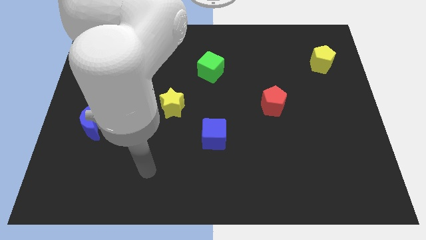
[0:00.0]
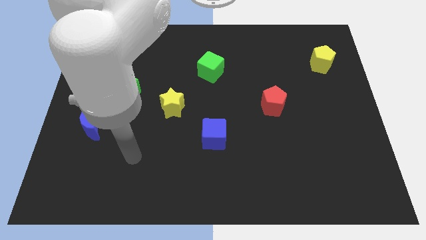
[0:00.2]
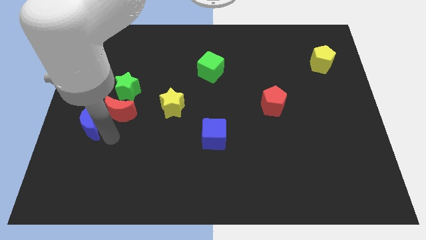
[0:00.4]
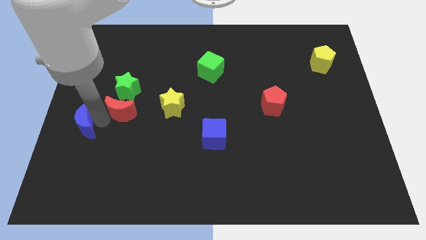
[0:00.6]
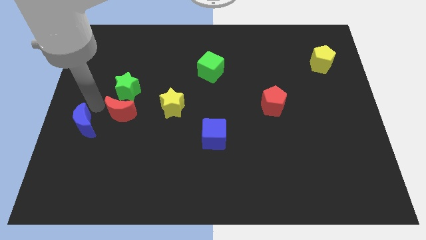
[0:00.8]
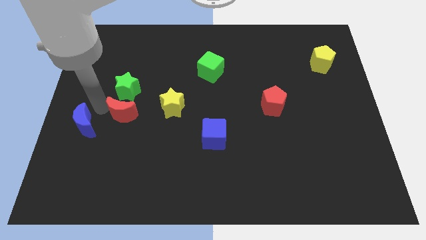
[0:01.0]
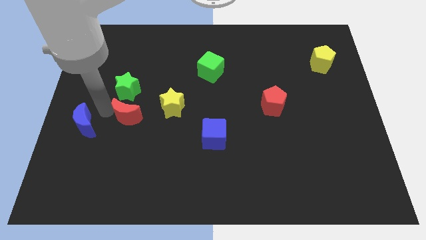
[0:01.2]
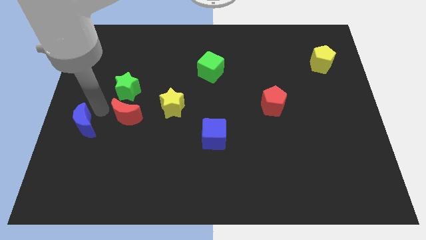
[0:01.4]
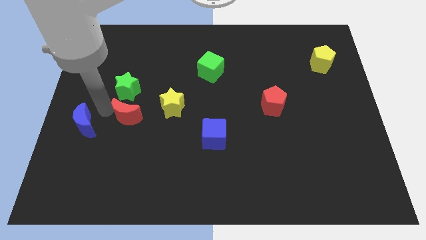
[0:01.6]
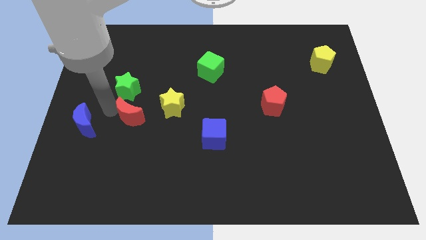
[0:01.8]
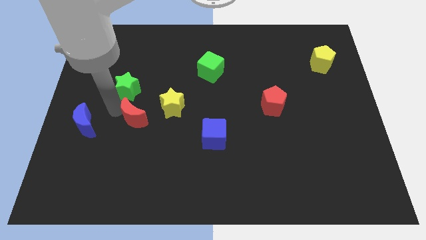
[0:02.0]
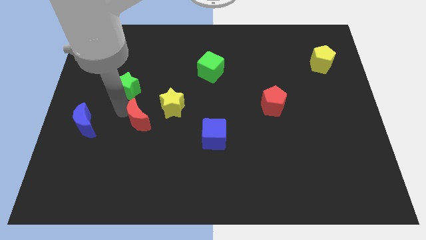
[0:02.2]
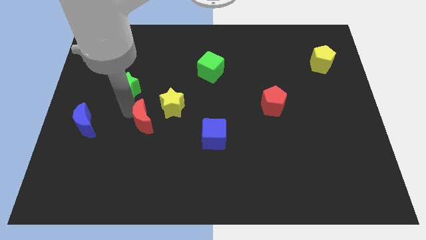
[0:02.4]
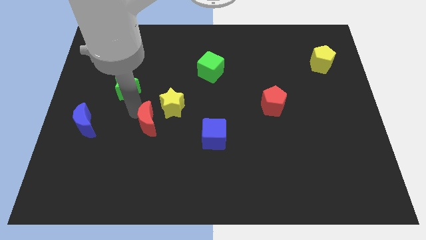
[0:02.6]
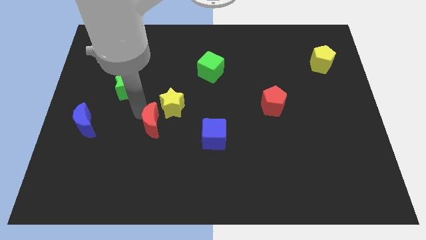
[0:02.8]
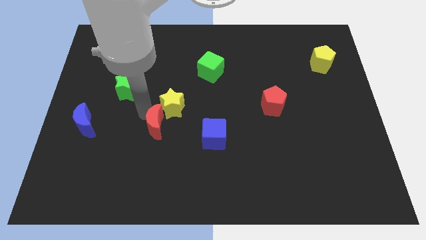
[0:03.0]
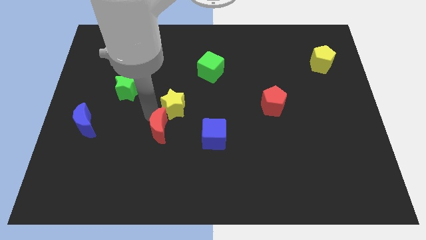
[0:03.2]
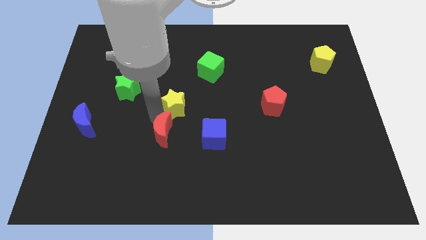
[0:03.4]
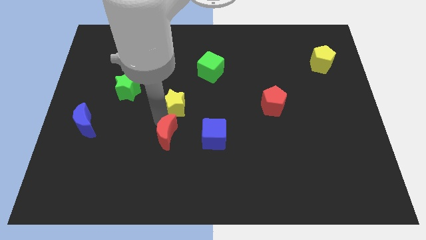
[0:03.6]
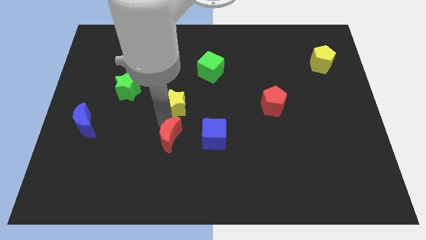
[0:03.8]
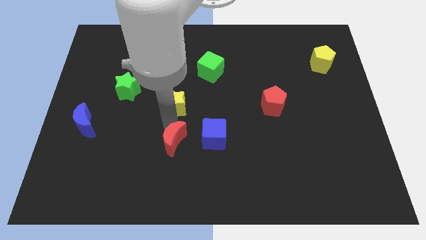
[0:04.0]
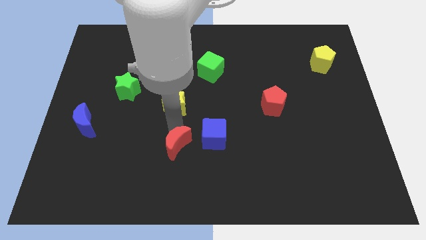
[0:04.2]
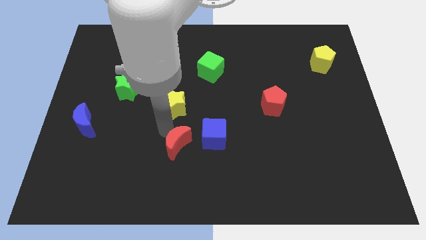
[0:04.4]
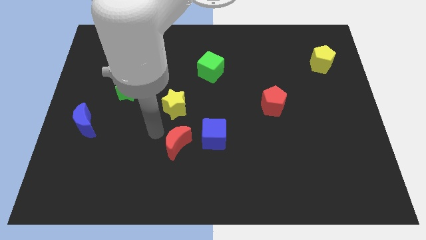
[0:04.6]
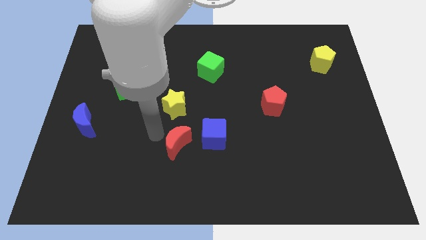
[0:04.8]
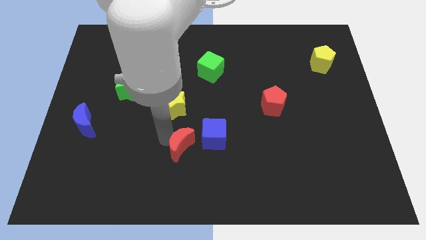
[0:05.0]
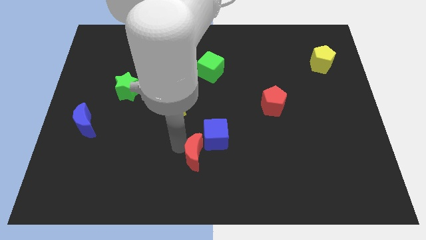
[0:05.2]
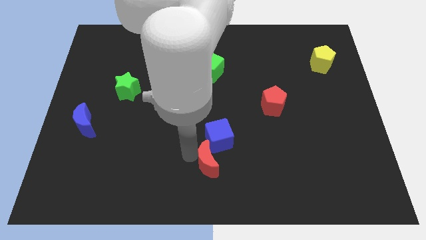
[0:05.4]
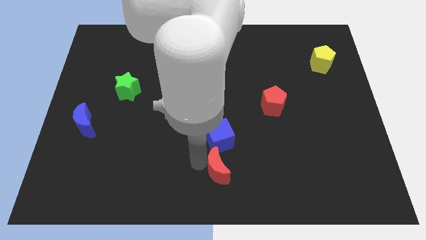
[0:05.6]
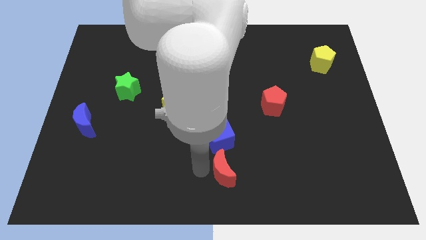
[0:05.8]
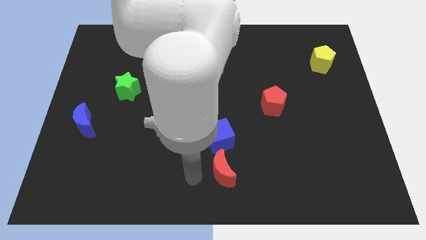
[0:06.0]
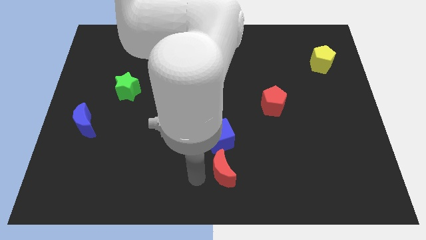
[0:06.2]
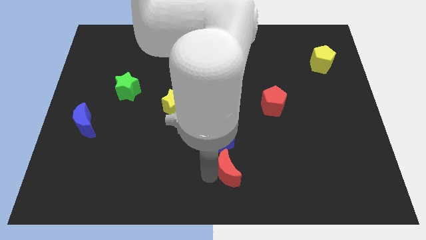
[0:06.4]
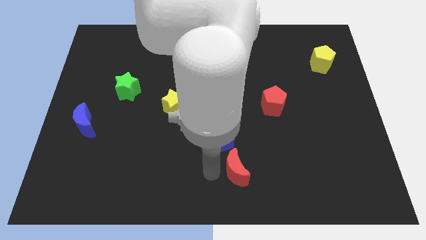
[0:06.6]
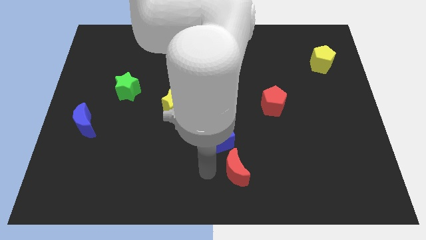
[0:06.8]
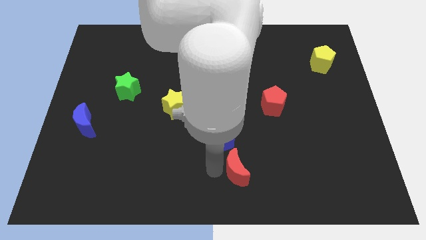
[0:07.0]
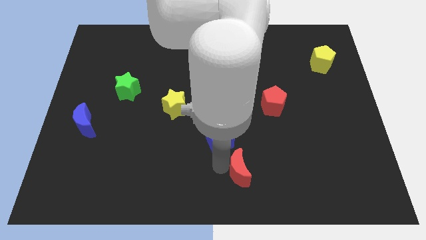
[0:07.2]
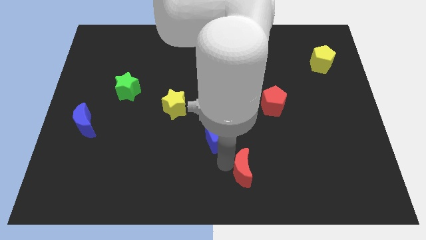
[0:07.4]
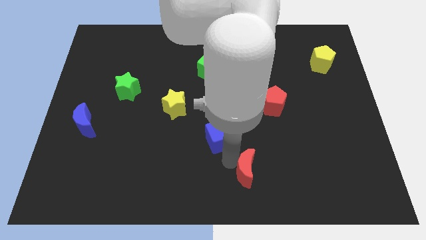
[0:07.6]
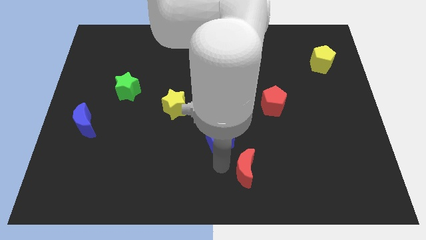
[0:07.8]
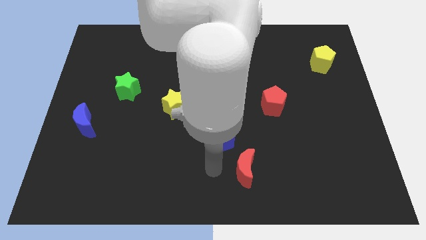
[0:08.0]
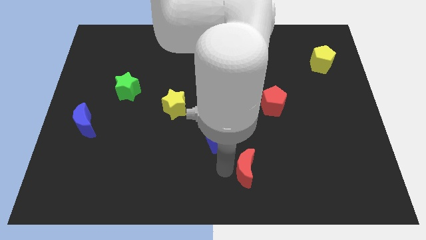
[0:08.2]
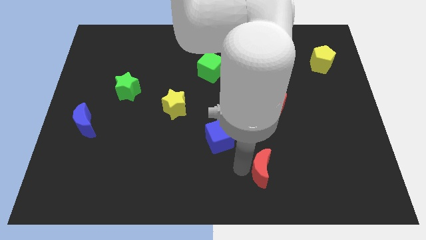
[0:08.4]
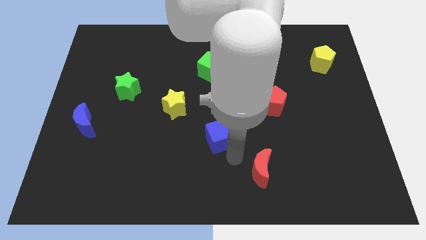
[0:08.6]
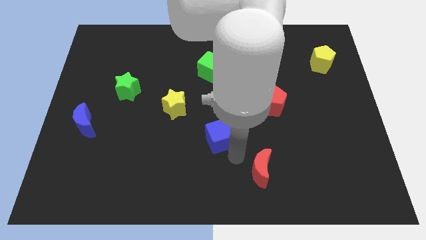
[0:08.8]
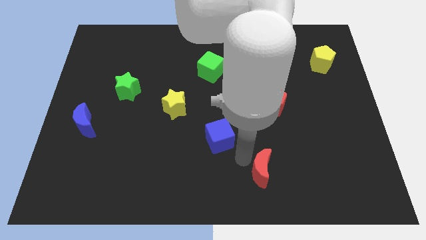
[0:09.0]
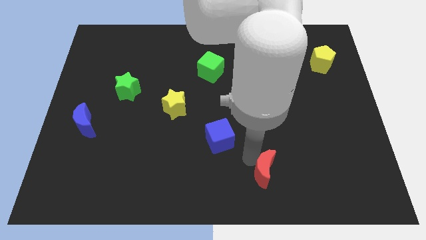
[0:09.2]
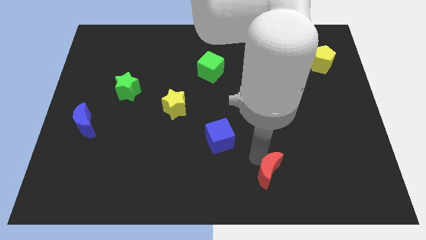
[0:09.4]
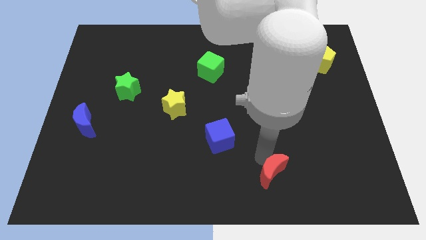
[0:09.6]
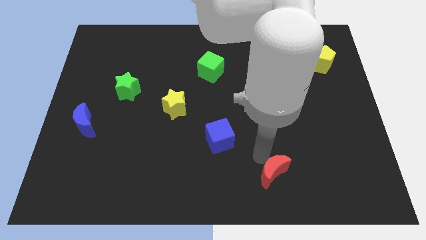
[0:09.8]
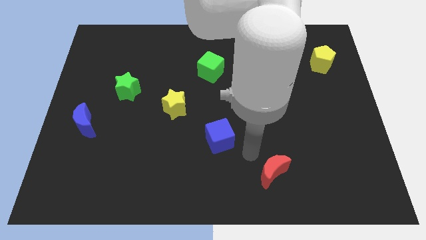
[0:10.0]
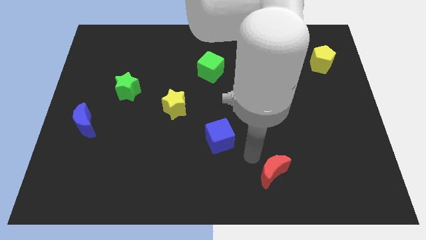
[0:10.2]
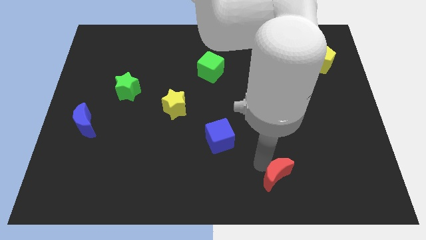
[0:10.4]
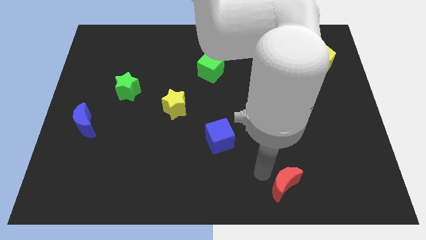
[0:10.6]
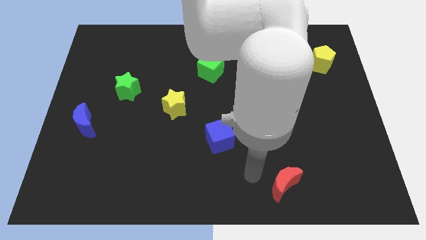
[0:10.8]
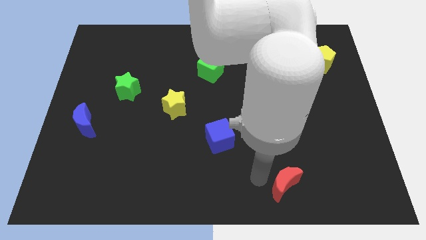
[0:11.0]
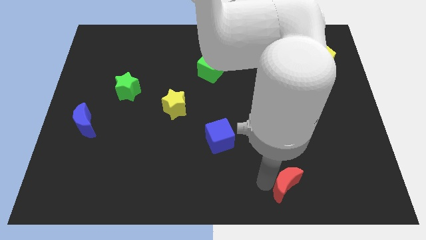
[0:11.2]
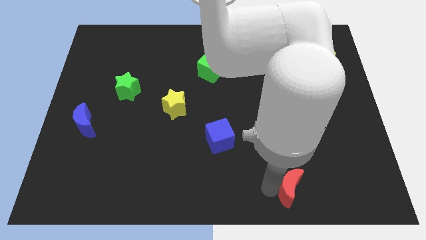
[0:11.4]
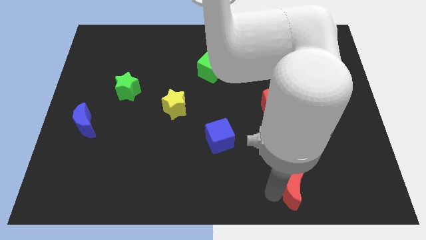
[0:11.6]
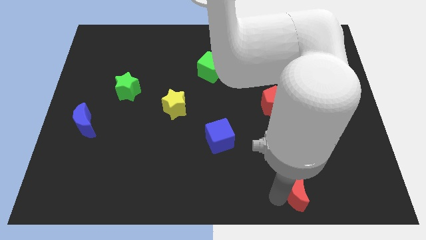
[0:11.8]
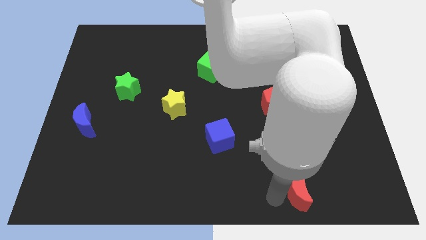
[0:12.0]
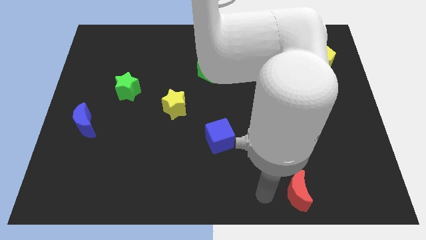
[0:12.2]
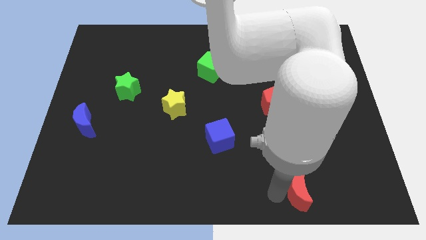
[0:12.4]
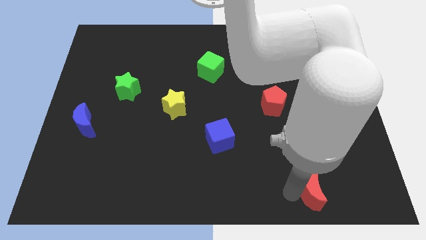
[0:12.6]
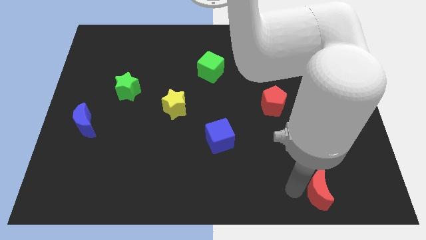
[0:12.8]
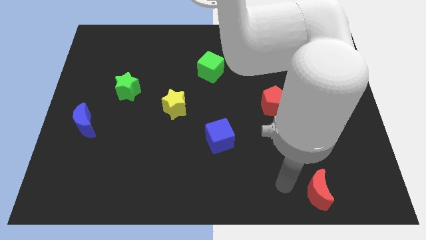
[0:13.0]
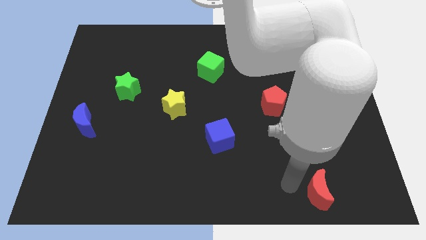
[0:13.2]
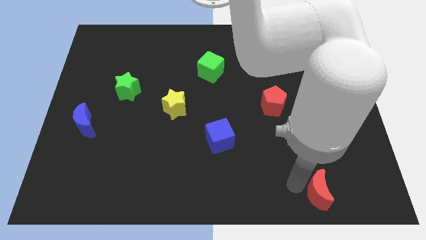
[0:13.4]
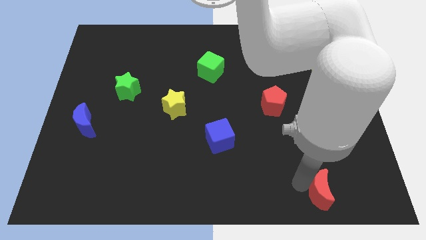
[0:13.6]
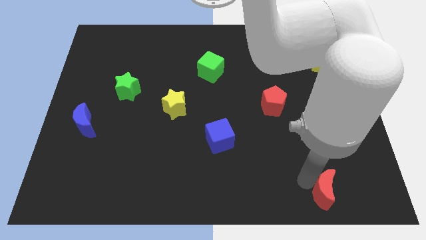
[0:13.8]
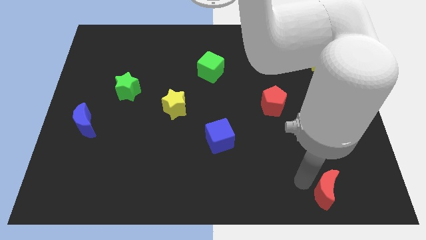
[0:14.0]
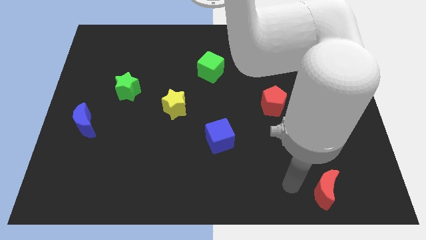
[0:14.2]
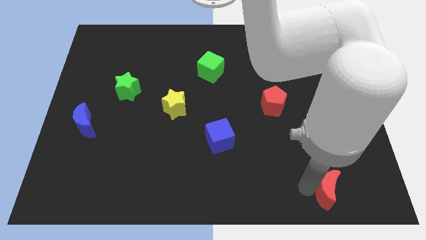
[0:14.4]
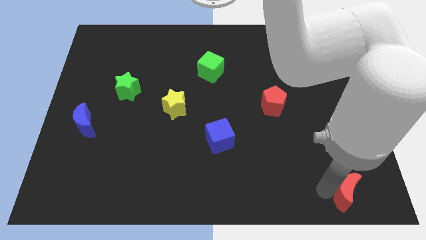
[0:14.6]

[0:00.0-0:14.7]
push the red moon to the bottom right

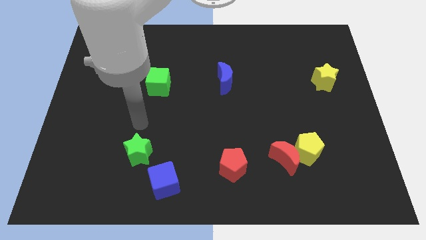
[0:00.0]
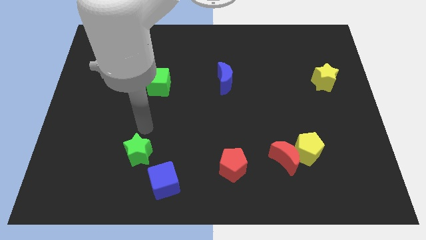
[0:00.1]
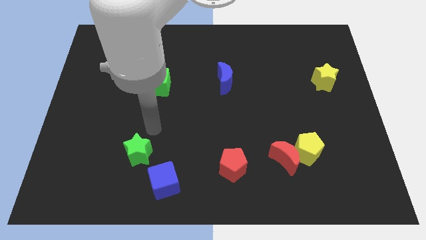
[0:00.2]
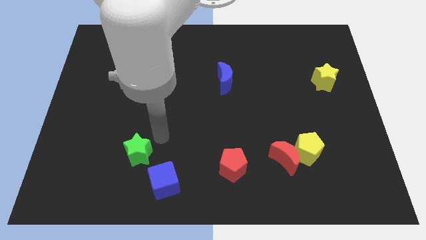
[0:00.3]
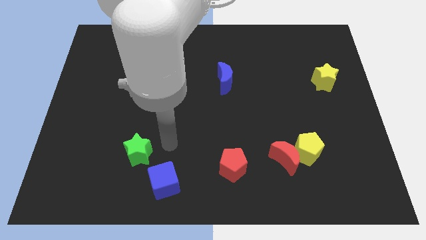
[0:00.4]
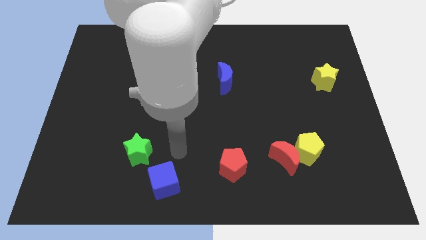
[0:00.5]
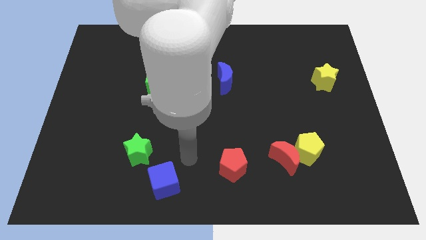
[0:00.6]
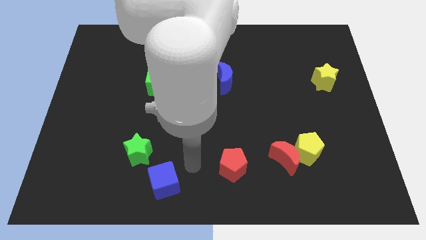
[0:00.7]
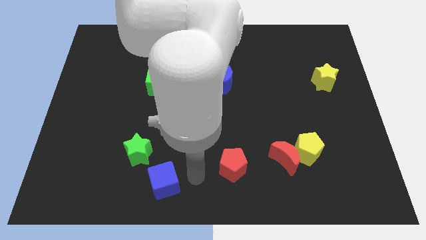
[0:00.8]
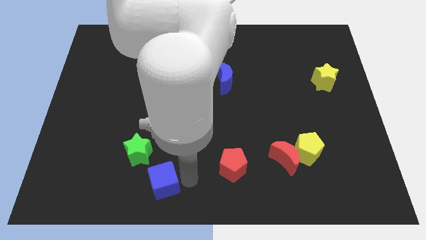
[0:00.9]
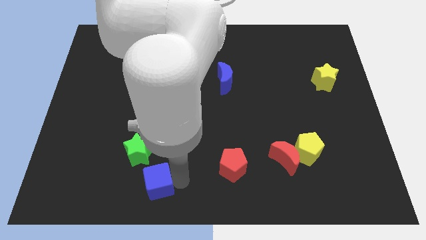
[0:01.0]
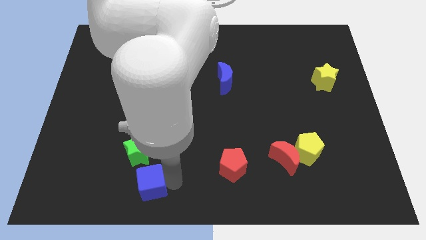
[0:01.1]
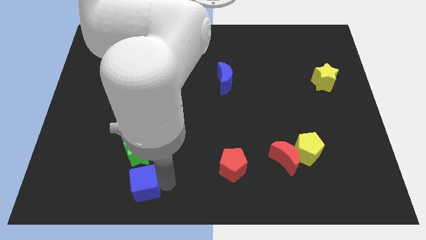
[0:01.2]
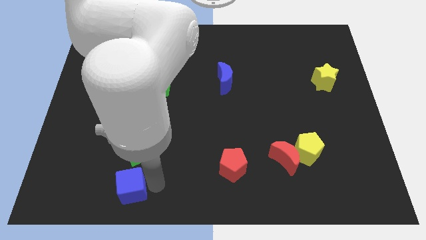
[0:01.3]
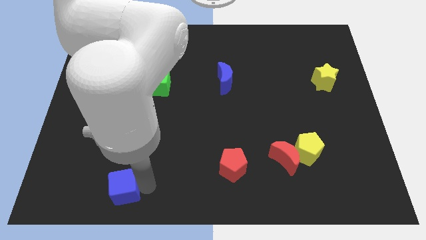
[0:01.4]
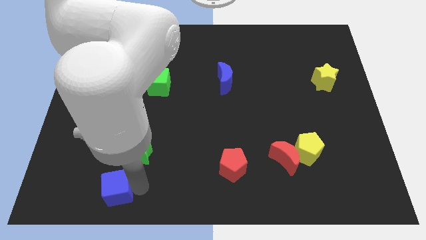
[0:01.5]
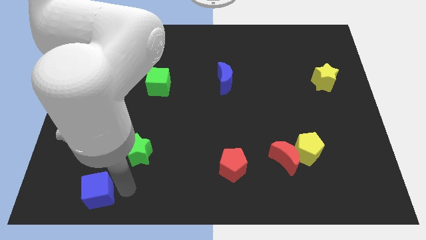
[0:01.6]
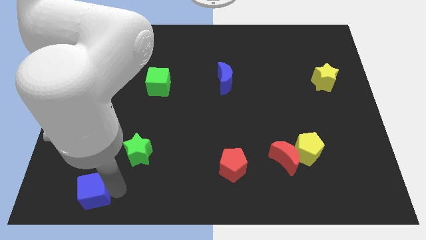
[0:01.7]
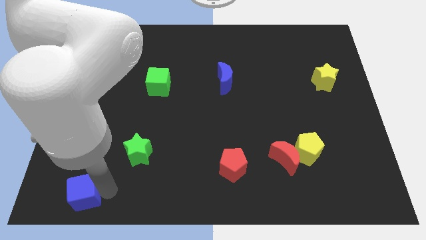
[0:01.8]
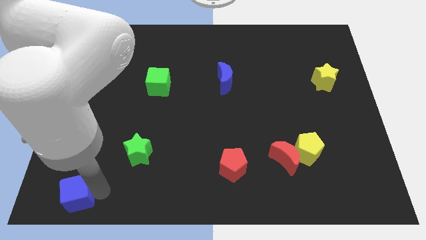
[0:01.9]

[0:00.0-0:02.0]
put the blue cube to the bottom left of the board
